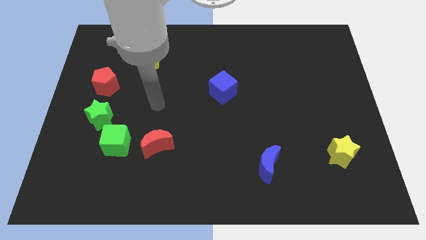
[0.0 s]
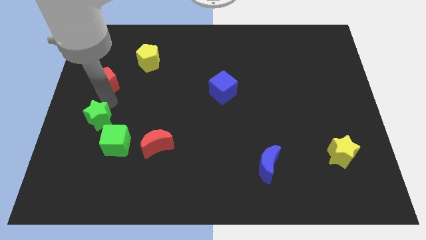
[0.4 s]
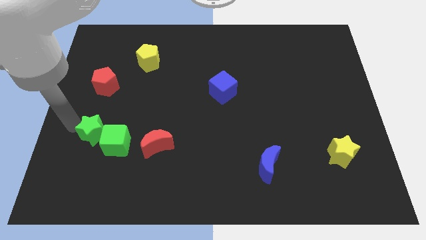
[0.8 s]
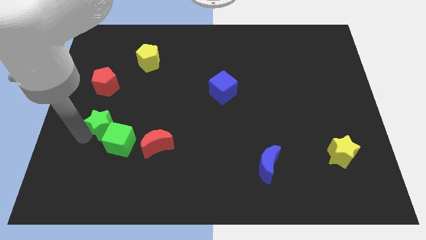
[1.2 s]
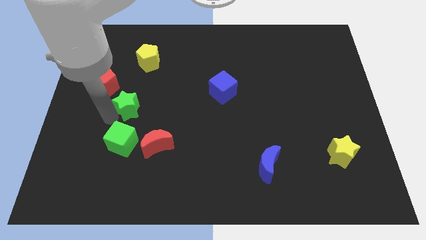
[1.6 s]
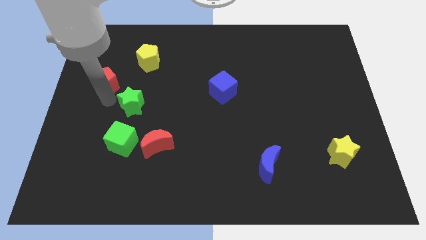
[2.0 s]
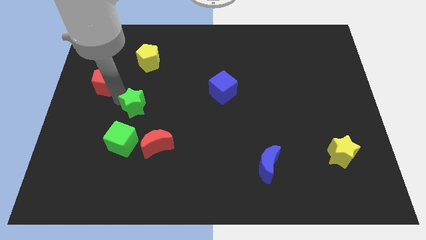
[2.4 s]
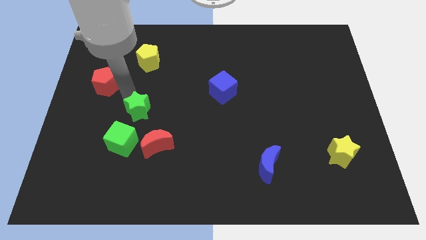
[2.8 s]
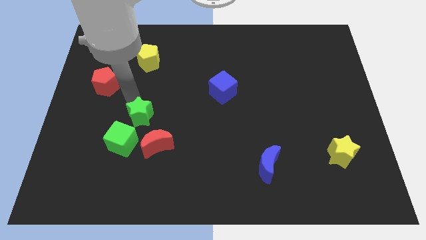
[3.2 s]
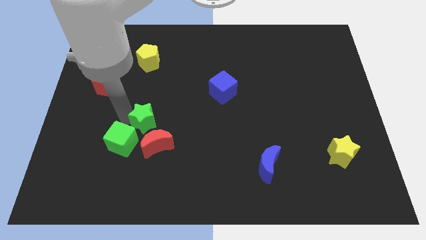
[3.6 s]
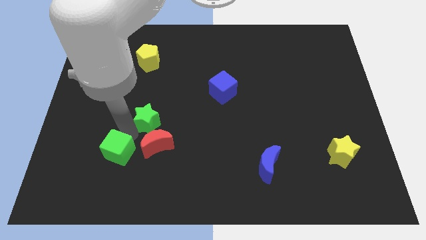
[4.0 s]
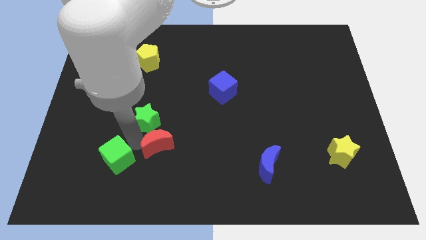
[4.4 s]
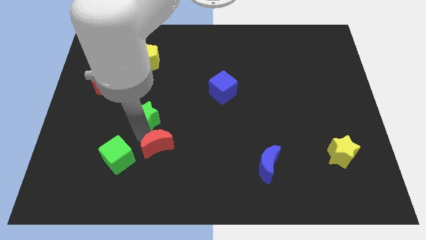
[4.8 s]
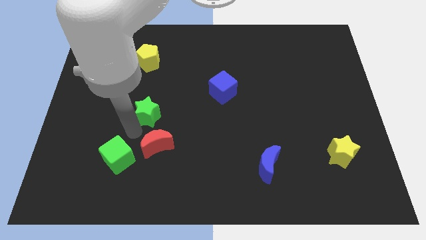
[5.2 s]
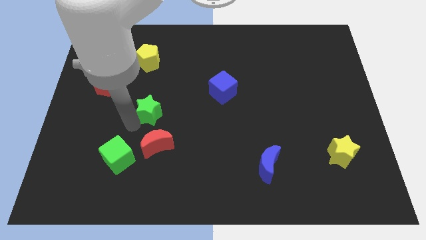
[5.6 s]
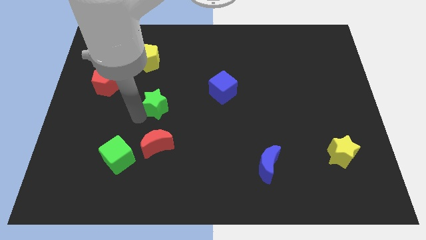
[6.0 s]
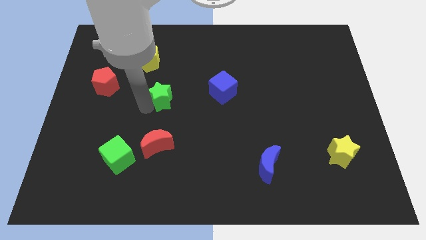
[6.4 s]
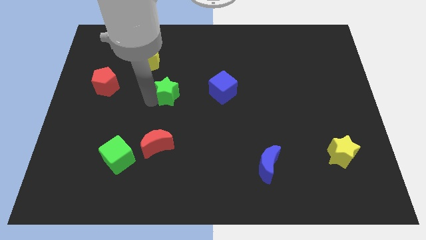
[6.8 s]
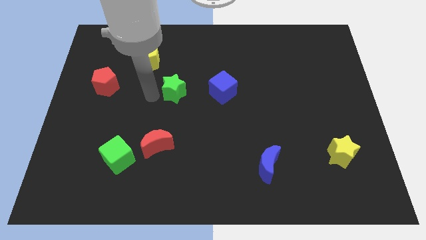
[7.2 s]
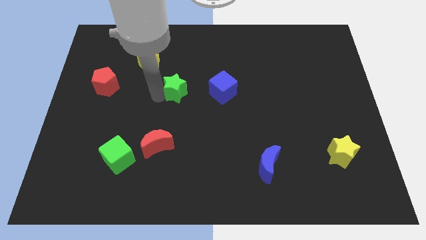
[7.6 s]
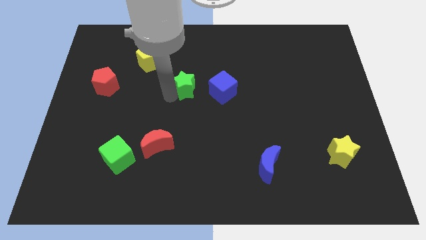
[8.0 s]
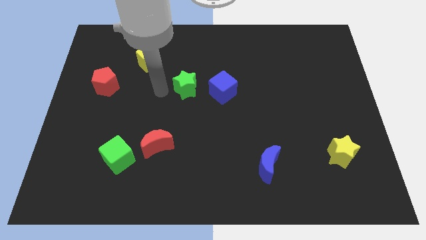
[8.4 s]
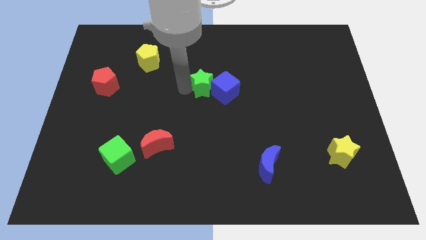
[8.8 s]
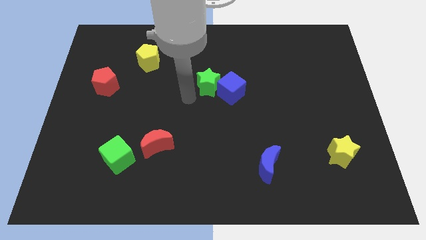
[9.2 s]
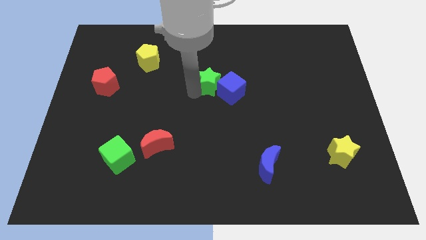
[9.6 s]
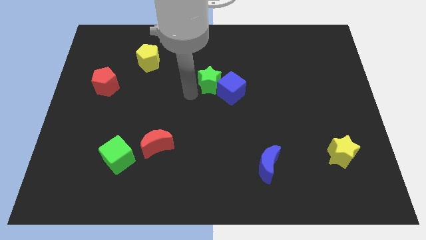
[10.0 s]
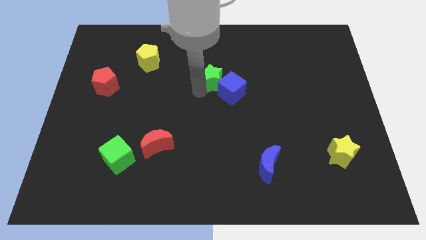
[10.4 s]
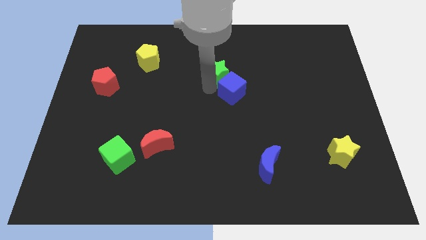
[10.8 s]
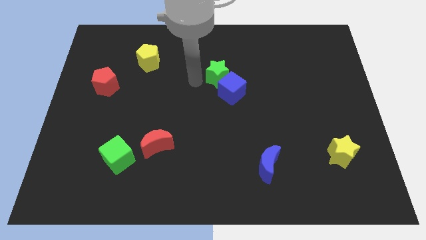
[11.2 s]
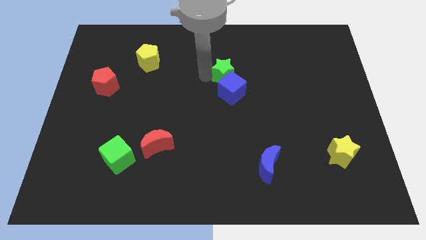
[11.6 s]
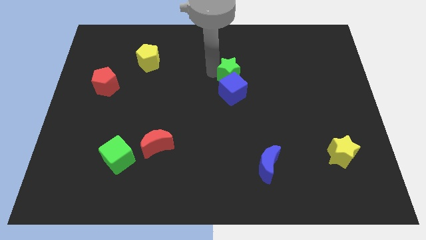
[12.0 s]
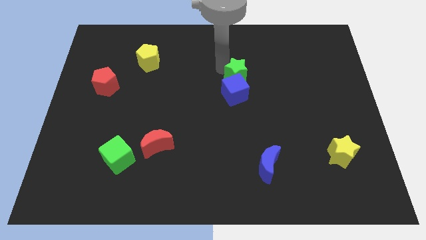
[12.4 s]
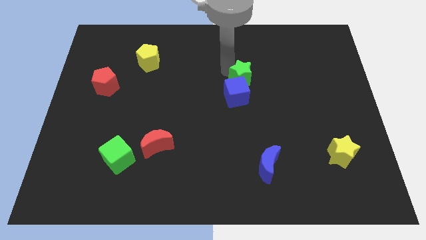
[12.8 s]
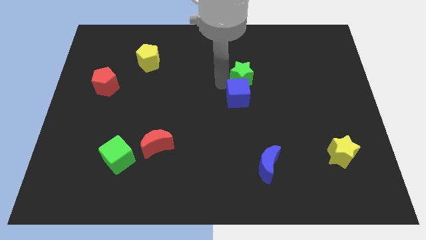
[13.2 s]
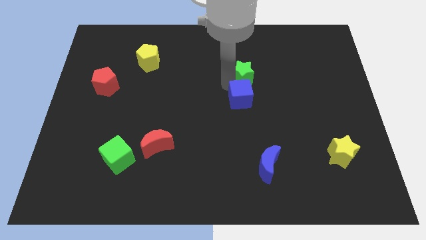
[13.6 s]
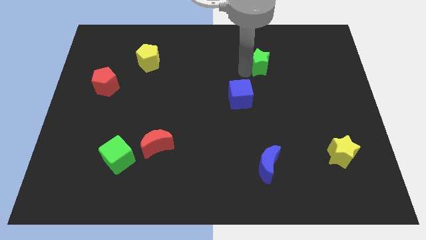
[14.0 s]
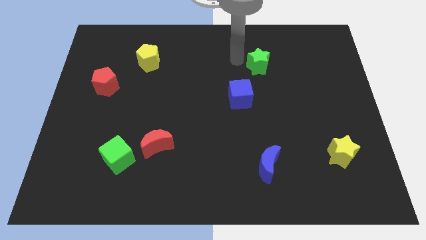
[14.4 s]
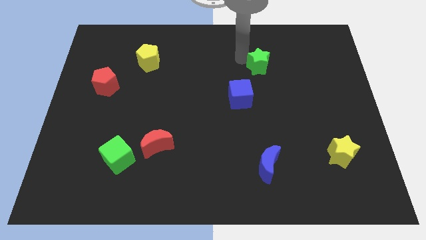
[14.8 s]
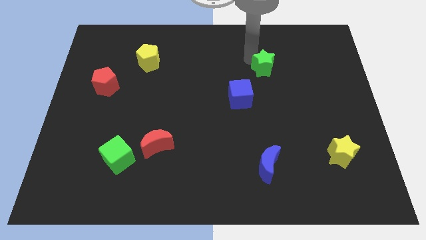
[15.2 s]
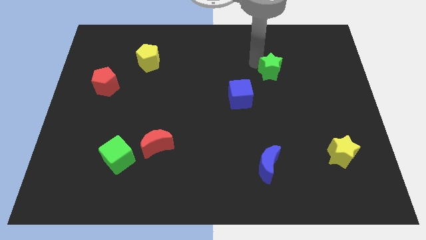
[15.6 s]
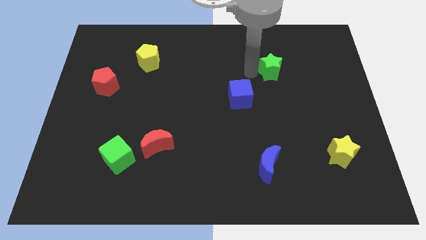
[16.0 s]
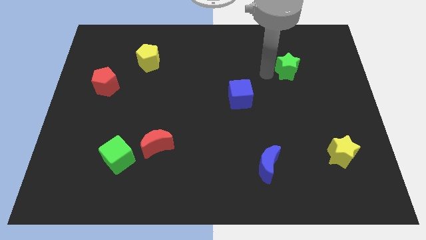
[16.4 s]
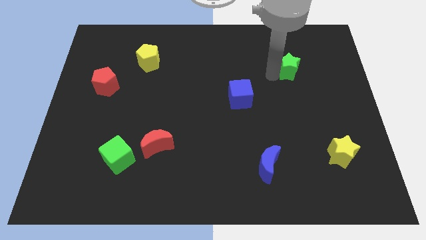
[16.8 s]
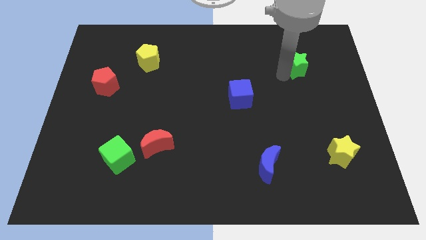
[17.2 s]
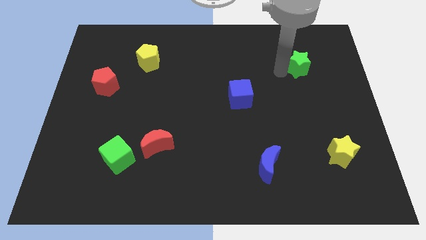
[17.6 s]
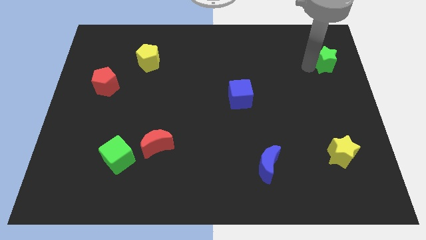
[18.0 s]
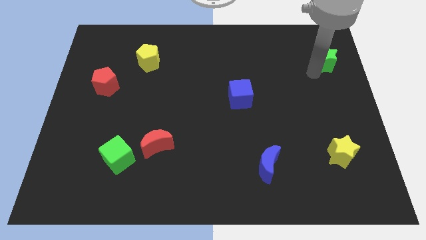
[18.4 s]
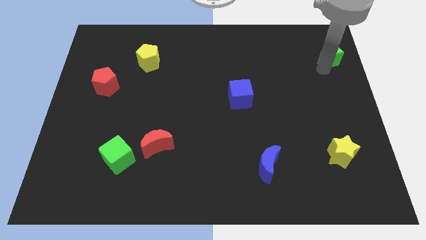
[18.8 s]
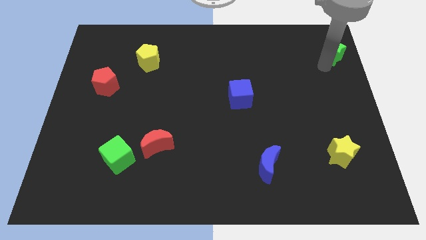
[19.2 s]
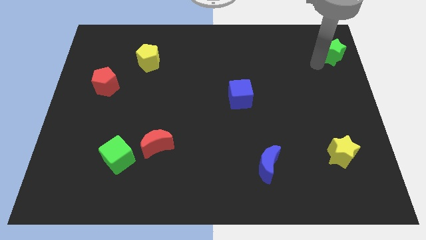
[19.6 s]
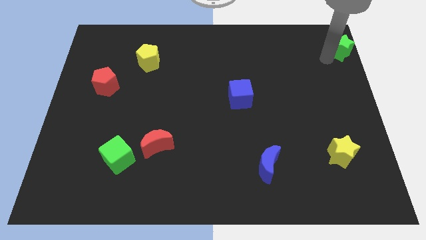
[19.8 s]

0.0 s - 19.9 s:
slide the green star to the top right corner

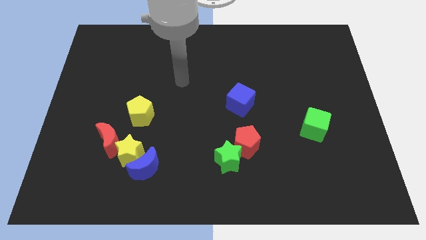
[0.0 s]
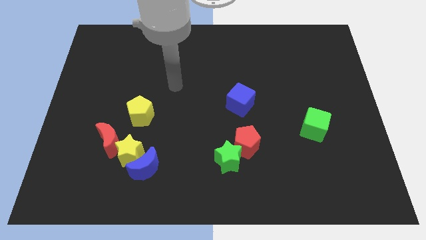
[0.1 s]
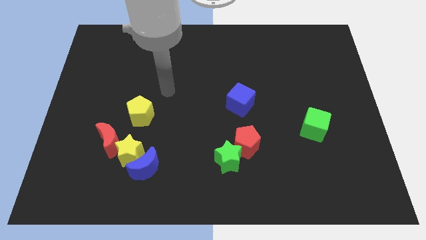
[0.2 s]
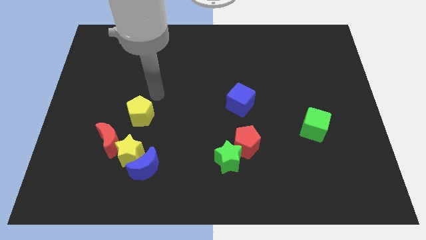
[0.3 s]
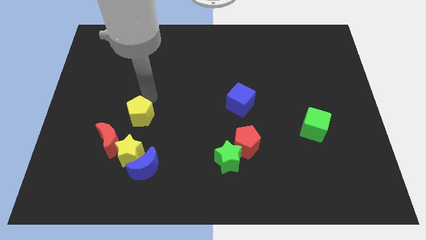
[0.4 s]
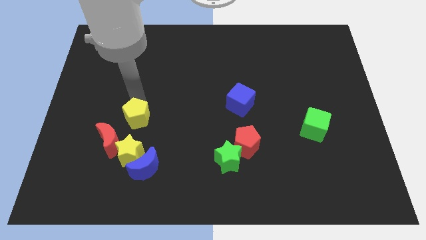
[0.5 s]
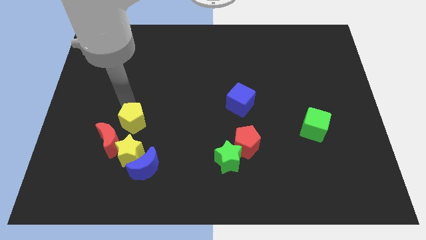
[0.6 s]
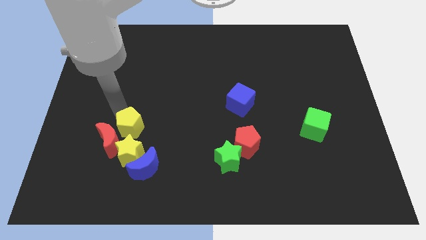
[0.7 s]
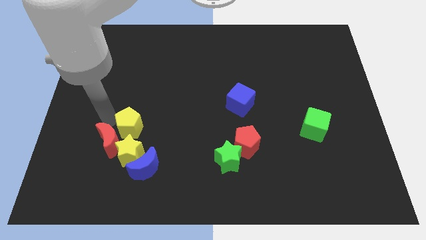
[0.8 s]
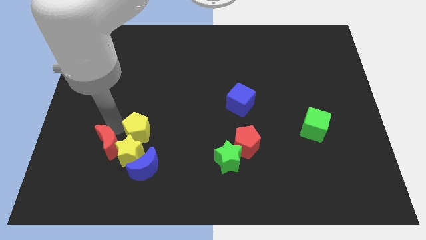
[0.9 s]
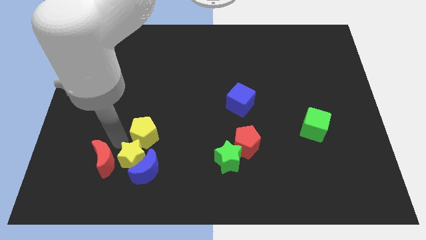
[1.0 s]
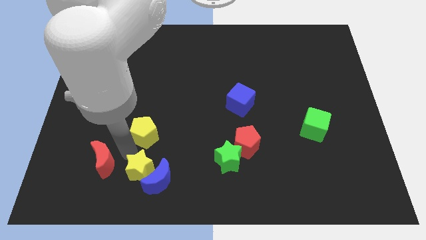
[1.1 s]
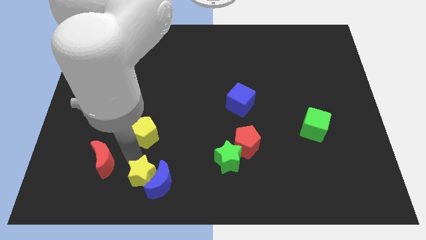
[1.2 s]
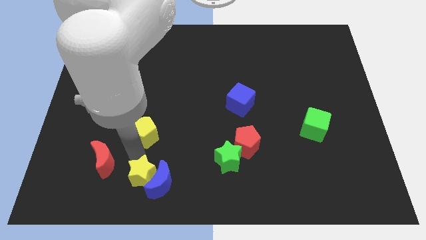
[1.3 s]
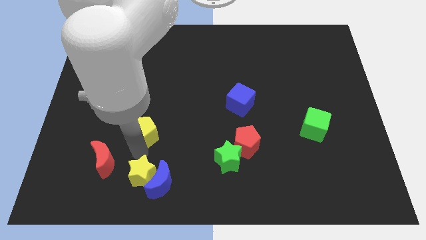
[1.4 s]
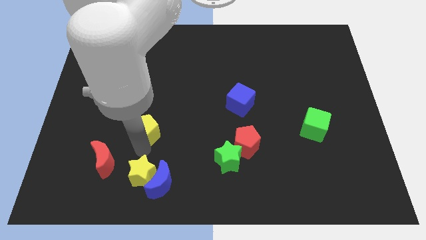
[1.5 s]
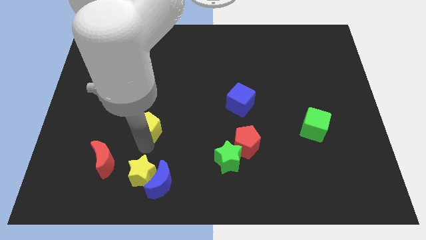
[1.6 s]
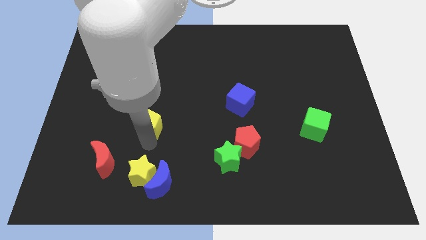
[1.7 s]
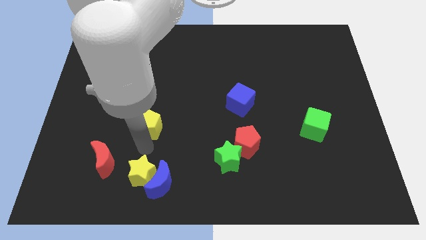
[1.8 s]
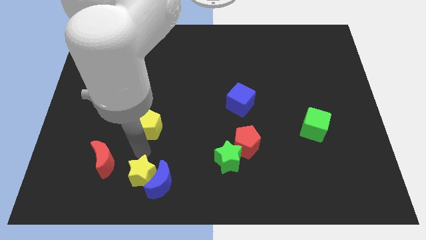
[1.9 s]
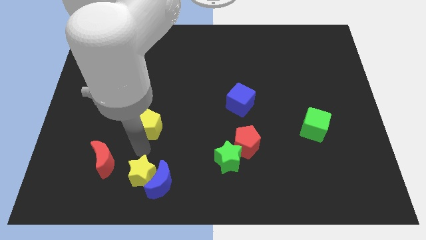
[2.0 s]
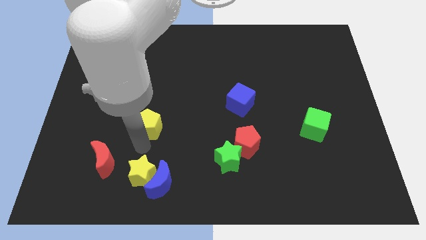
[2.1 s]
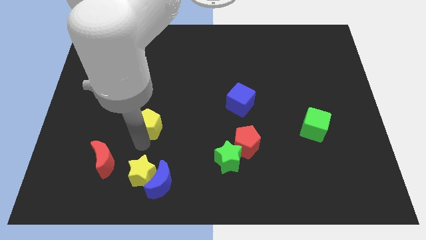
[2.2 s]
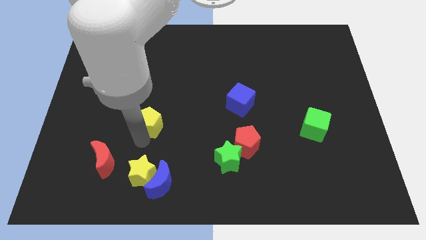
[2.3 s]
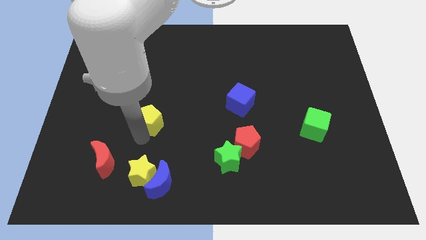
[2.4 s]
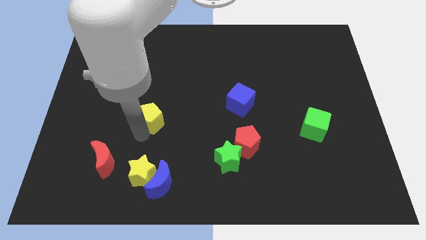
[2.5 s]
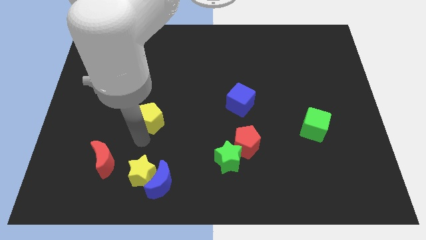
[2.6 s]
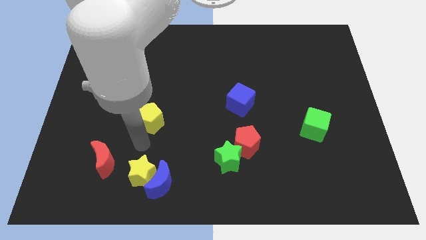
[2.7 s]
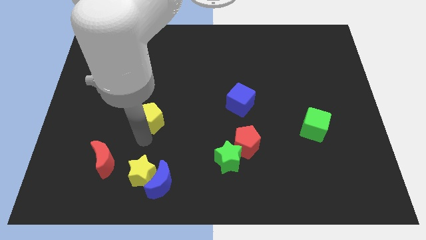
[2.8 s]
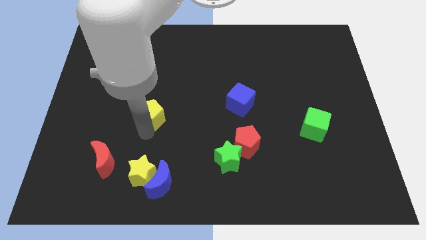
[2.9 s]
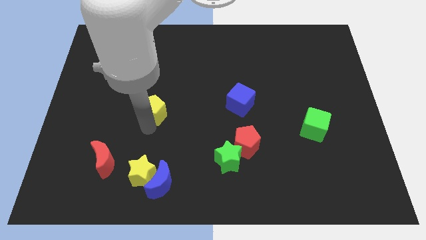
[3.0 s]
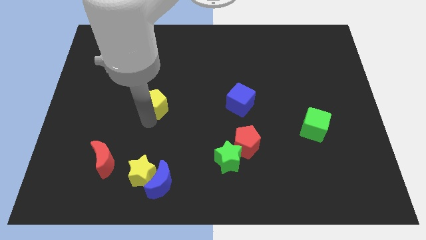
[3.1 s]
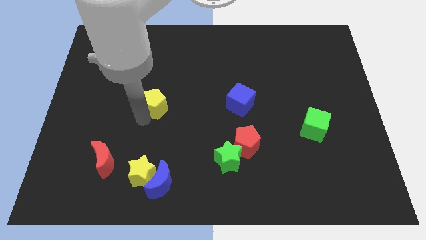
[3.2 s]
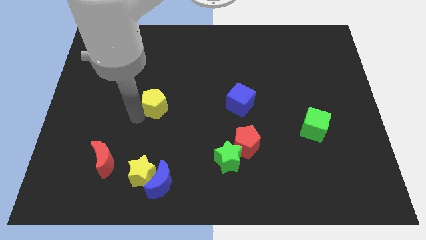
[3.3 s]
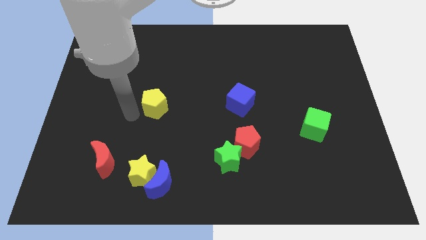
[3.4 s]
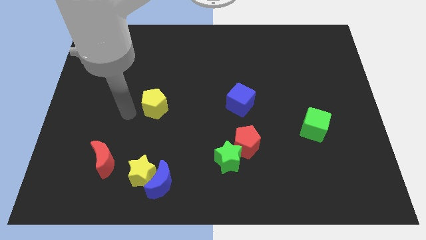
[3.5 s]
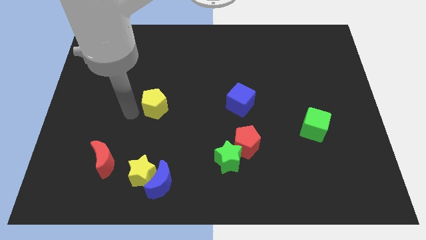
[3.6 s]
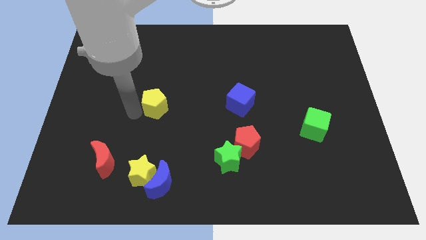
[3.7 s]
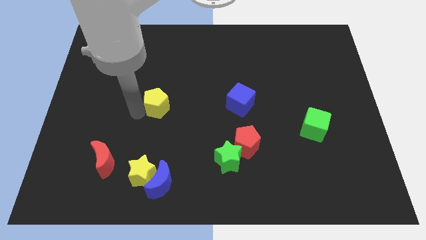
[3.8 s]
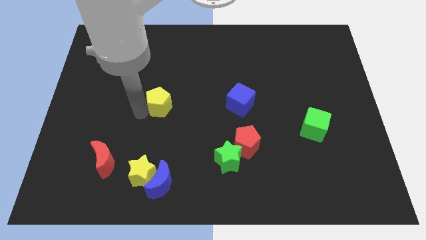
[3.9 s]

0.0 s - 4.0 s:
slide the yellow pentagon to the center
